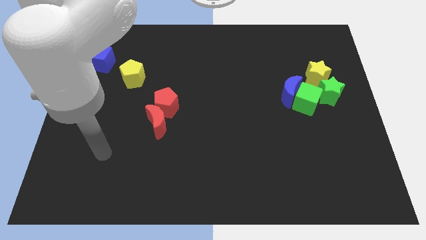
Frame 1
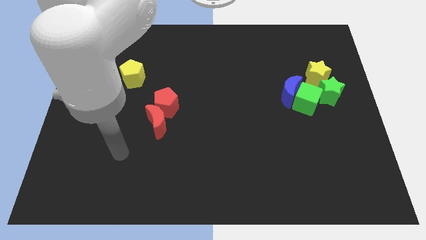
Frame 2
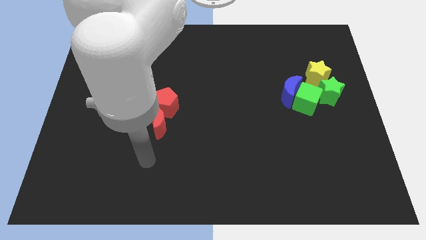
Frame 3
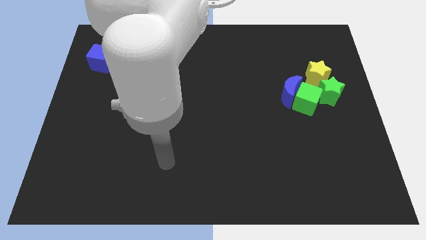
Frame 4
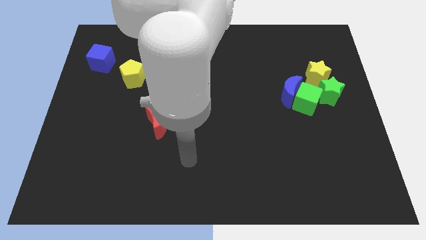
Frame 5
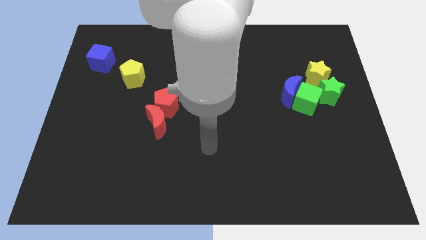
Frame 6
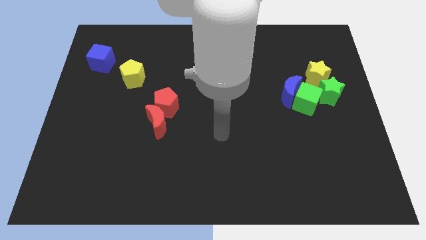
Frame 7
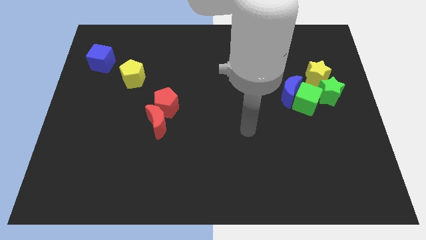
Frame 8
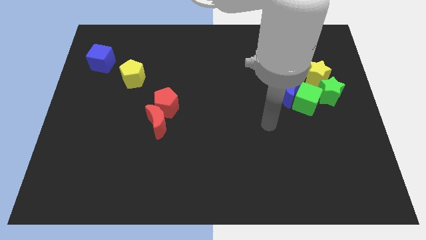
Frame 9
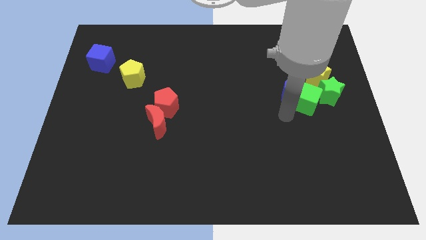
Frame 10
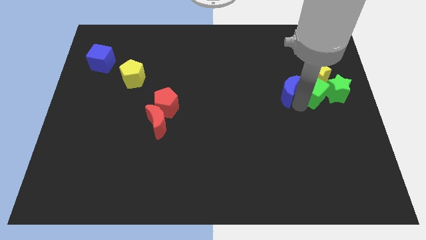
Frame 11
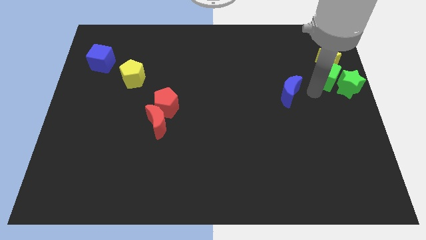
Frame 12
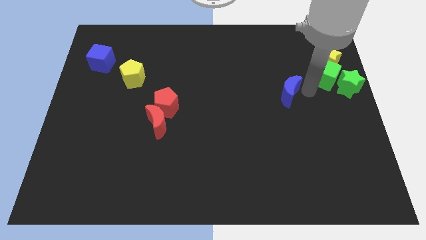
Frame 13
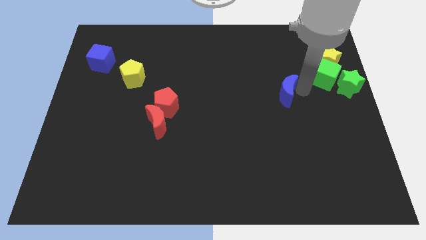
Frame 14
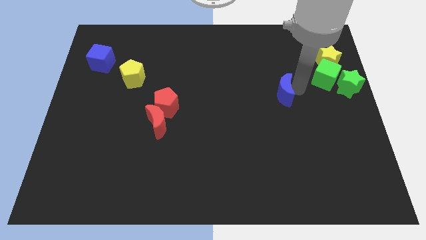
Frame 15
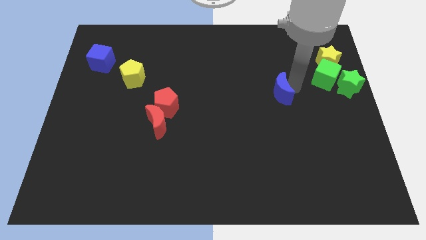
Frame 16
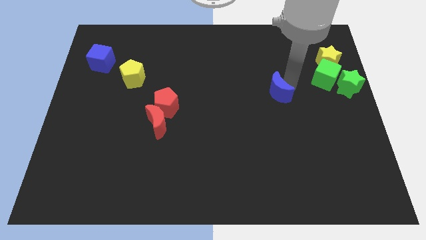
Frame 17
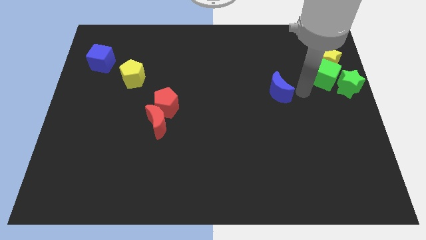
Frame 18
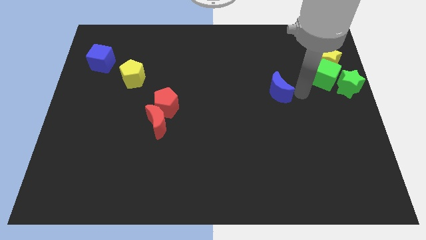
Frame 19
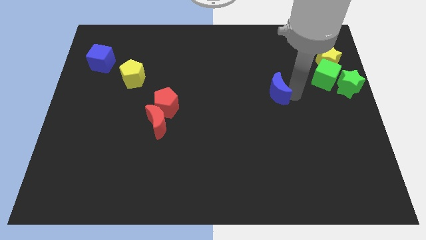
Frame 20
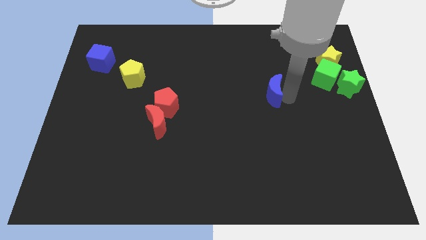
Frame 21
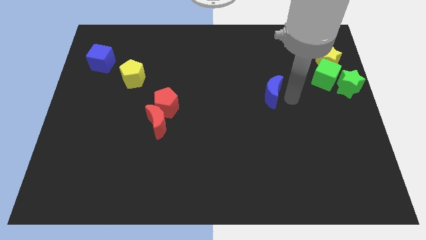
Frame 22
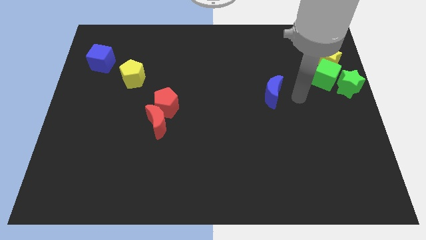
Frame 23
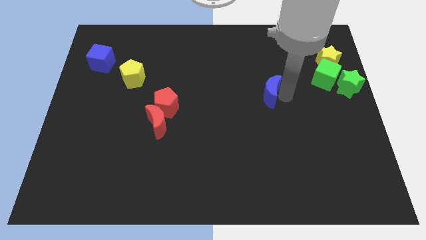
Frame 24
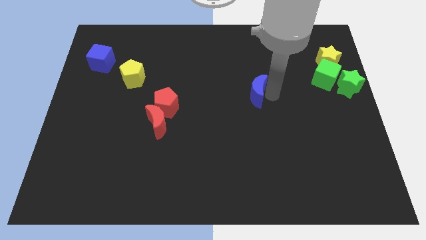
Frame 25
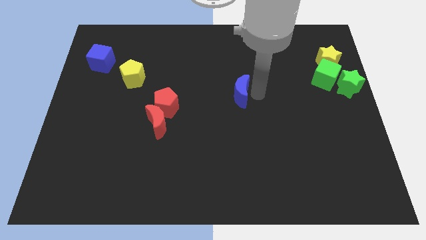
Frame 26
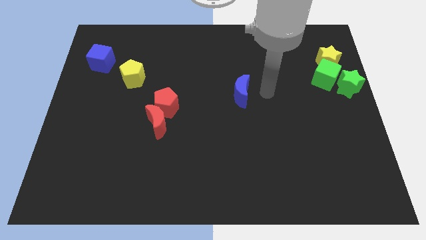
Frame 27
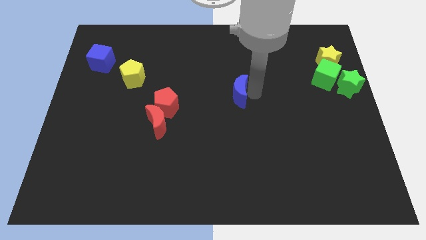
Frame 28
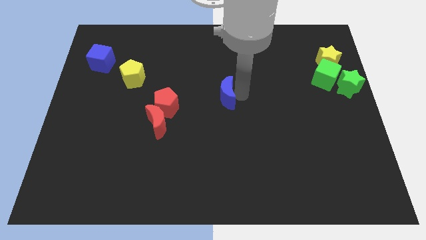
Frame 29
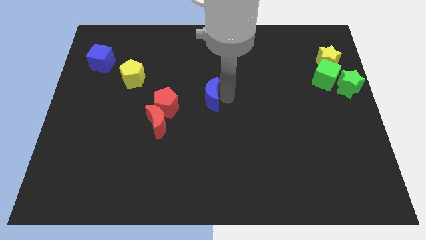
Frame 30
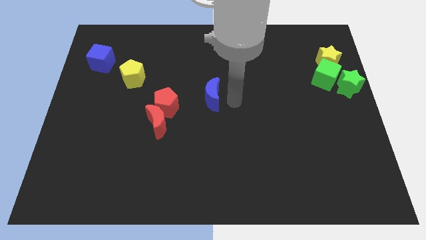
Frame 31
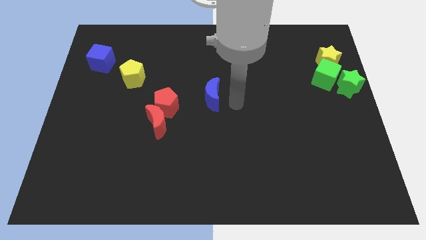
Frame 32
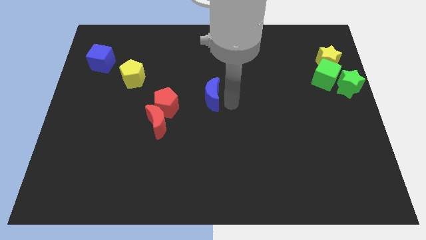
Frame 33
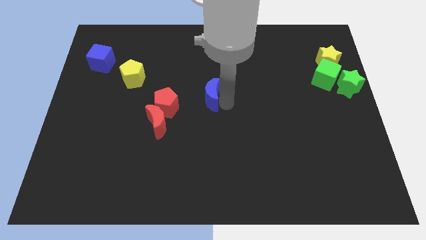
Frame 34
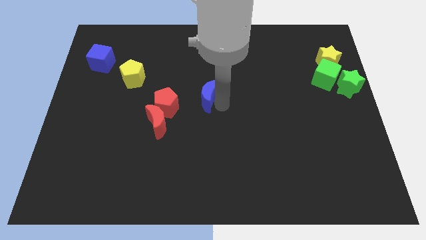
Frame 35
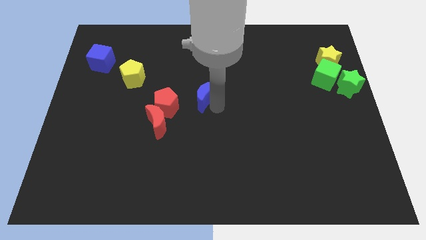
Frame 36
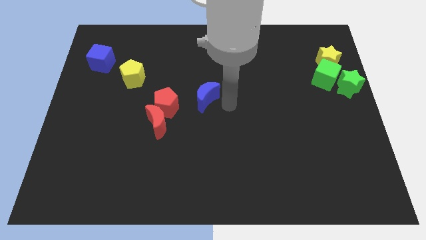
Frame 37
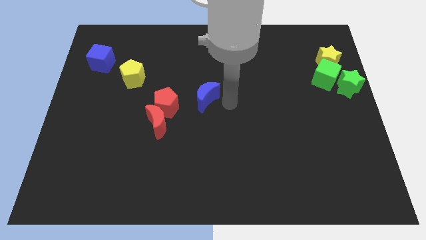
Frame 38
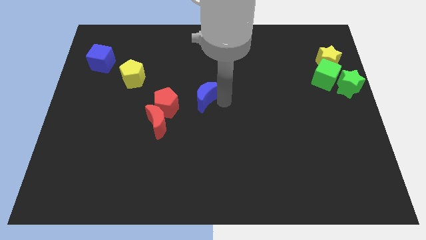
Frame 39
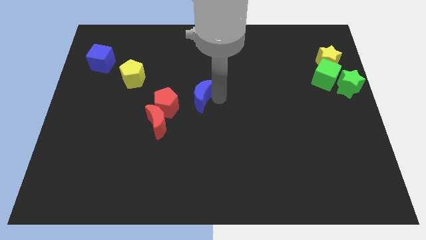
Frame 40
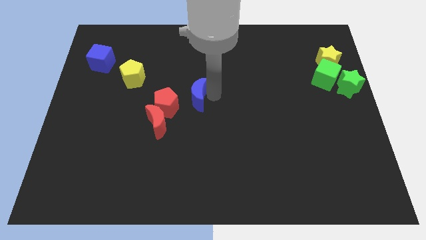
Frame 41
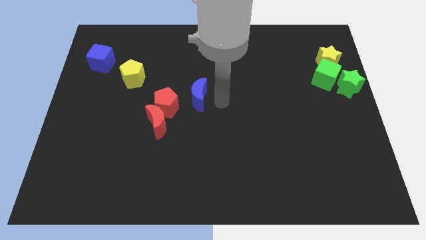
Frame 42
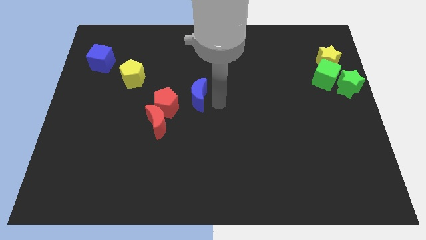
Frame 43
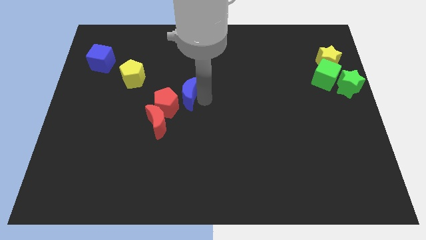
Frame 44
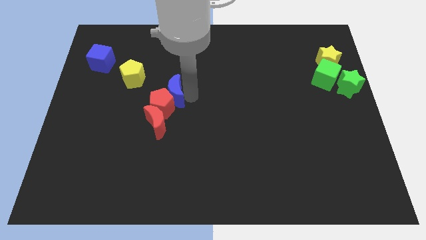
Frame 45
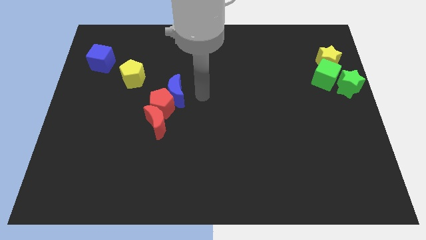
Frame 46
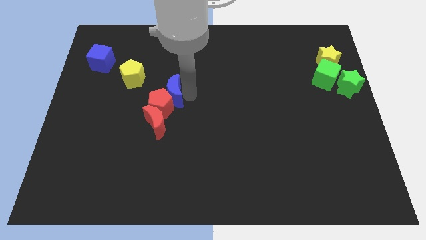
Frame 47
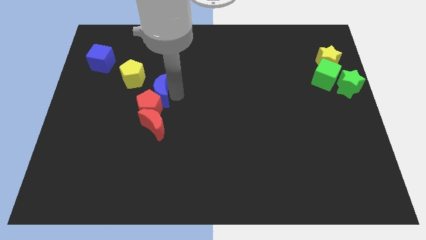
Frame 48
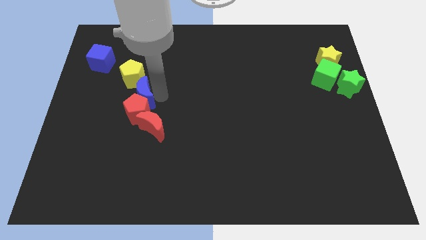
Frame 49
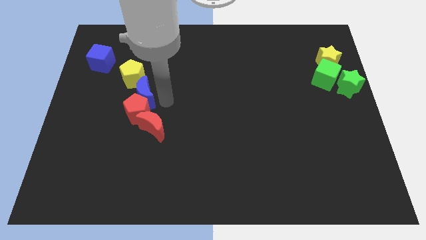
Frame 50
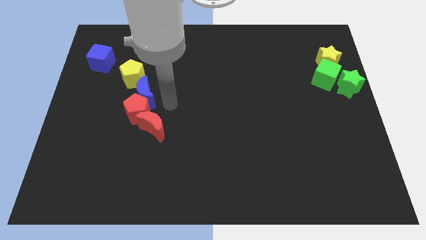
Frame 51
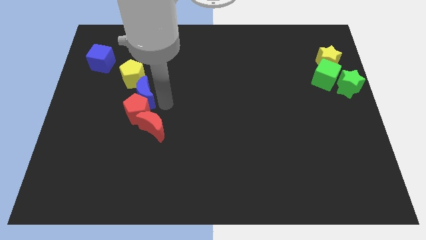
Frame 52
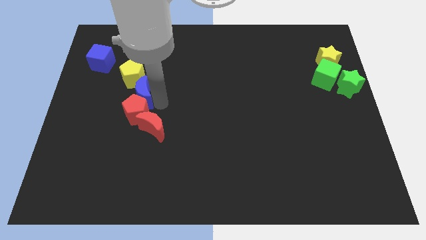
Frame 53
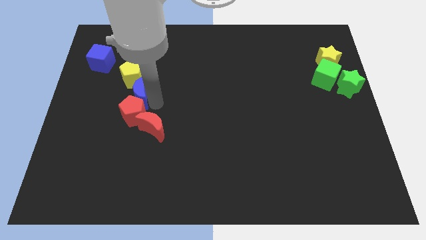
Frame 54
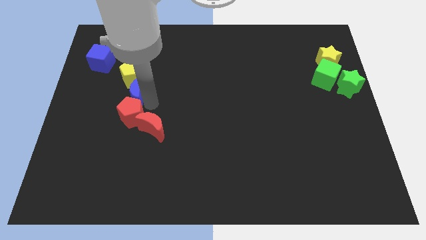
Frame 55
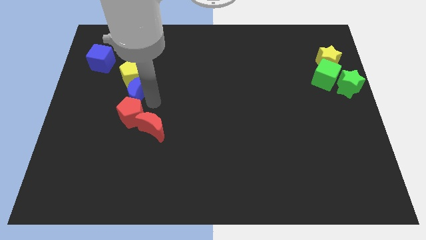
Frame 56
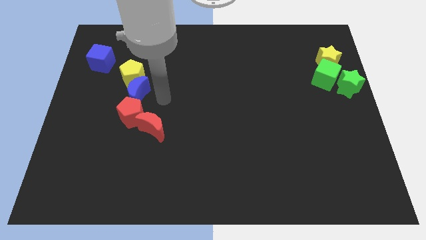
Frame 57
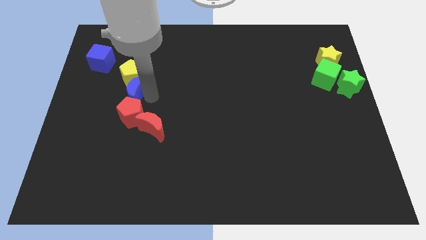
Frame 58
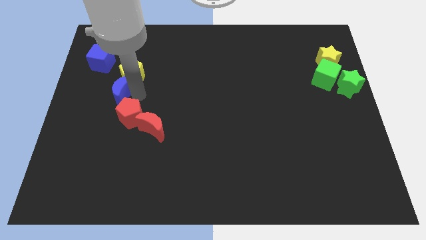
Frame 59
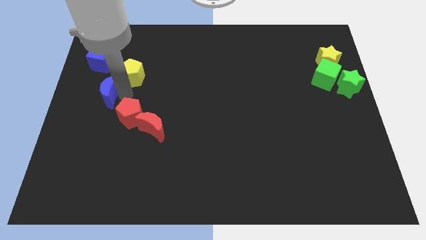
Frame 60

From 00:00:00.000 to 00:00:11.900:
push the blue moon to the center left

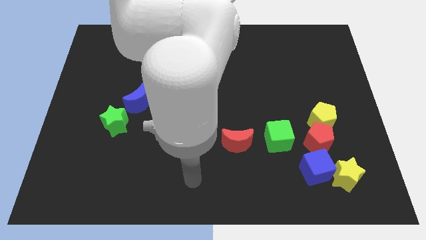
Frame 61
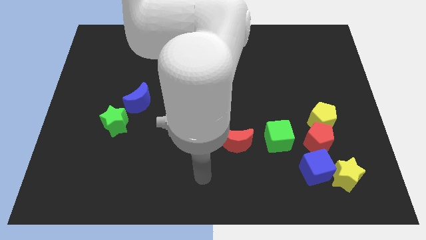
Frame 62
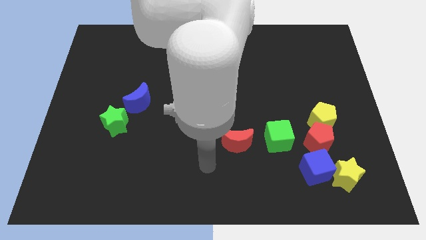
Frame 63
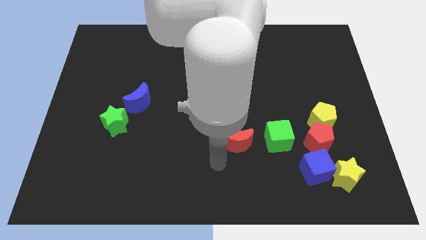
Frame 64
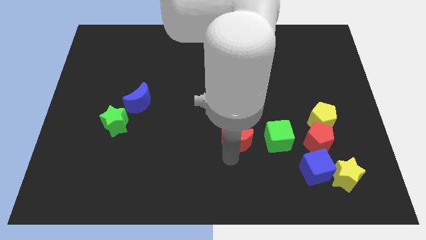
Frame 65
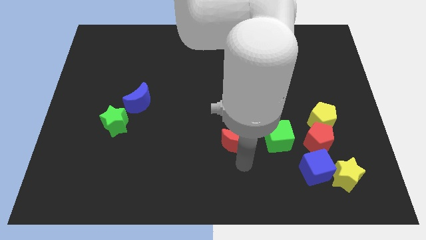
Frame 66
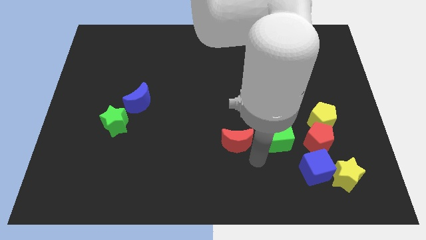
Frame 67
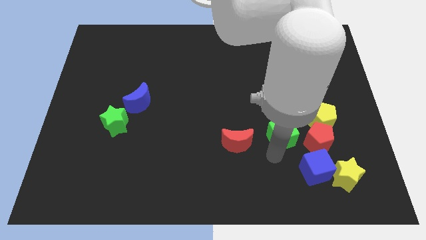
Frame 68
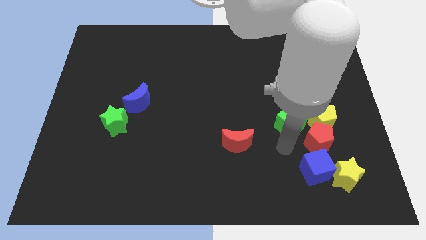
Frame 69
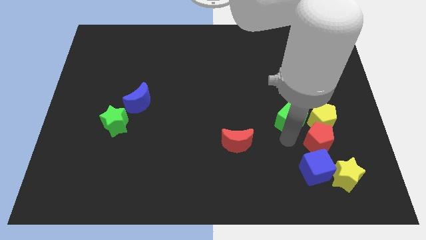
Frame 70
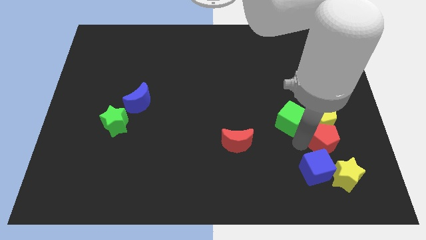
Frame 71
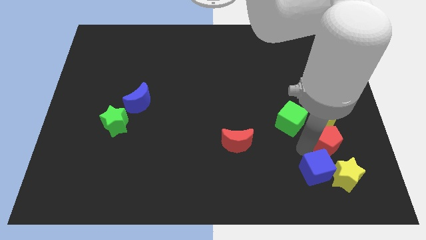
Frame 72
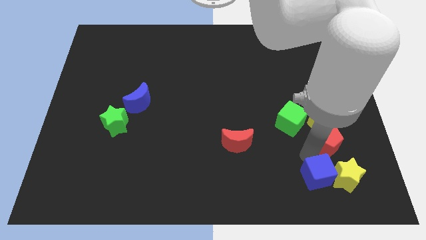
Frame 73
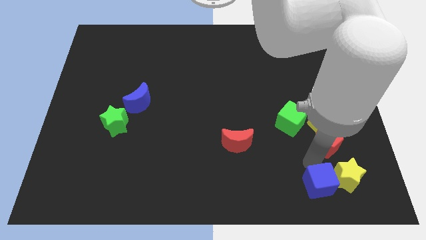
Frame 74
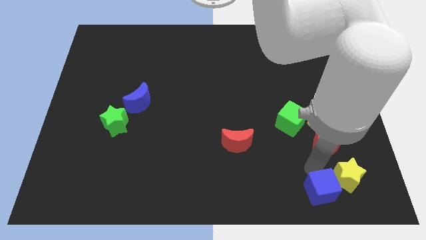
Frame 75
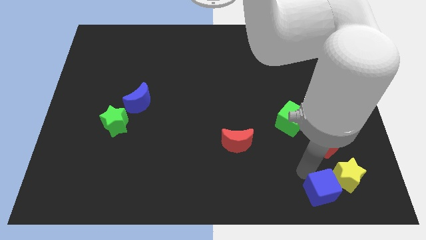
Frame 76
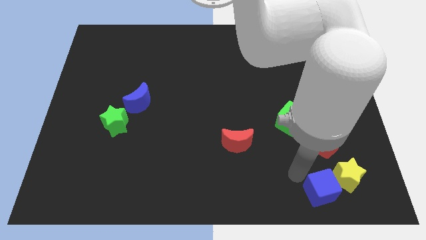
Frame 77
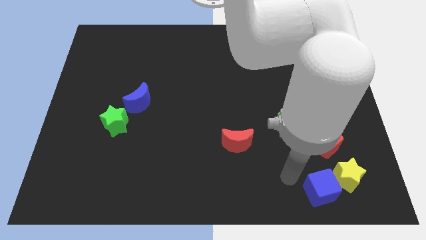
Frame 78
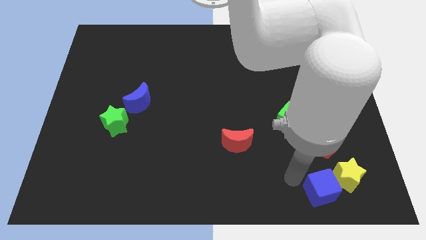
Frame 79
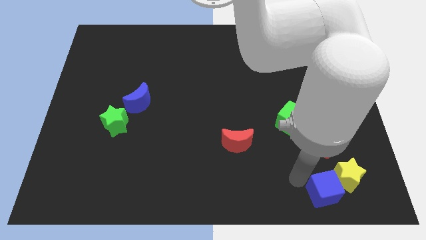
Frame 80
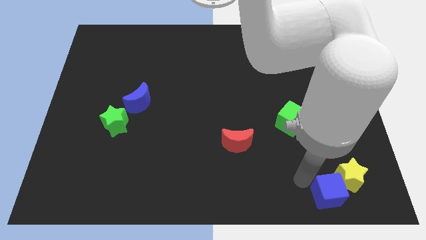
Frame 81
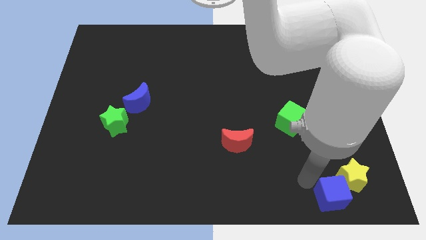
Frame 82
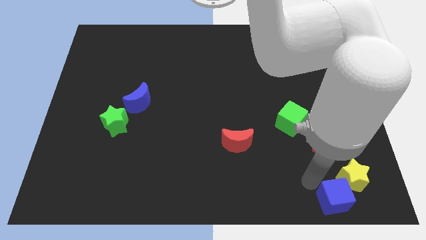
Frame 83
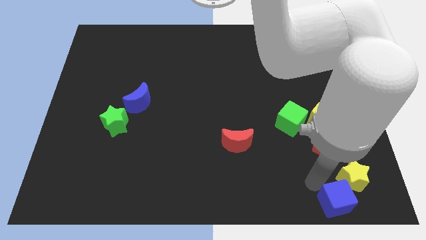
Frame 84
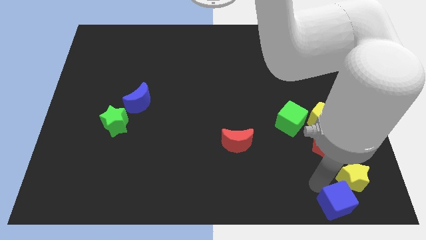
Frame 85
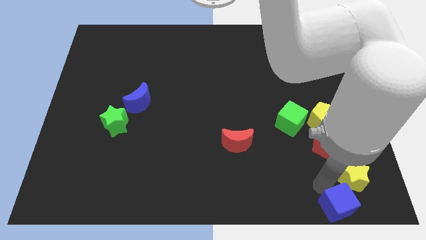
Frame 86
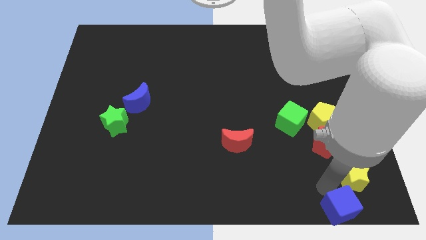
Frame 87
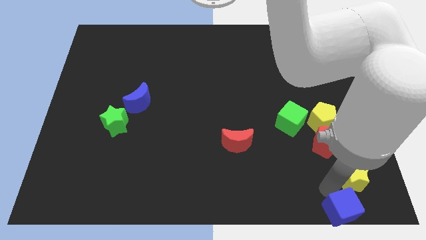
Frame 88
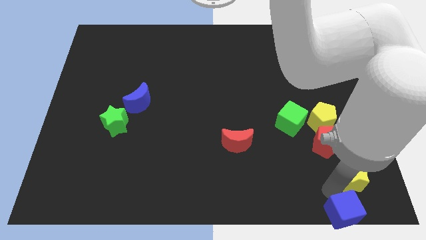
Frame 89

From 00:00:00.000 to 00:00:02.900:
slide the blue cube to the bottom right of the board
